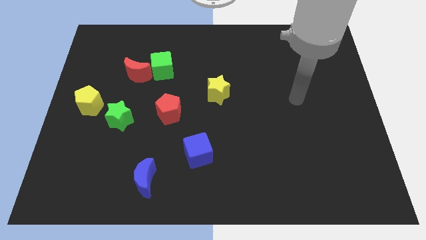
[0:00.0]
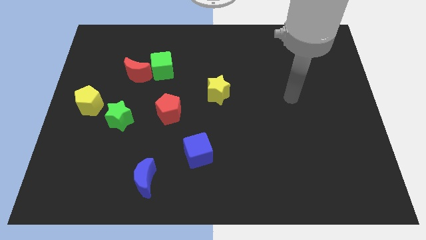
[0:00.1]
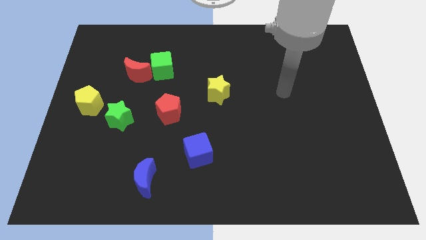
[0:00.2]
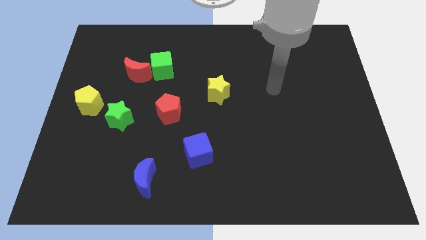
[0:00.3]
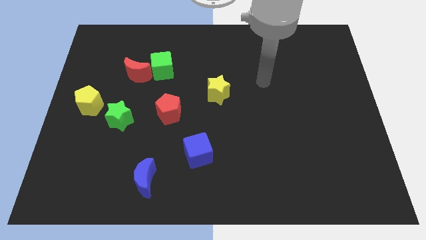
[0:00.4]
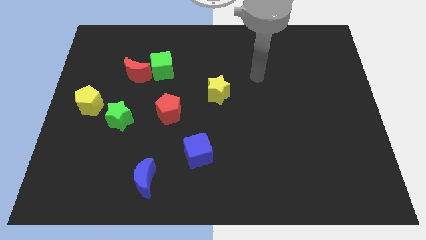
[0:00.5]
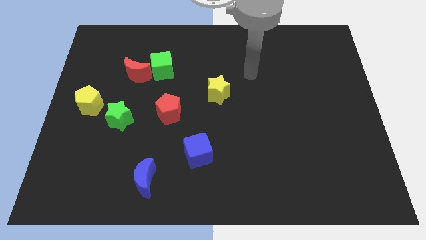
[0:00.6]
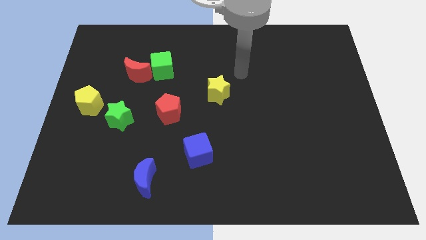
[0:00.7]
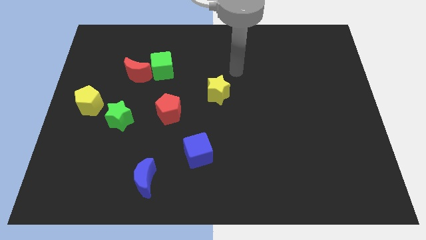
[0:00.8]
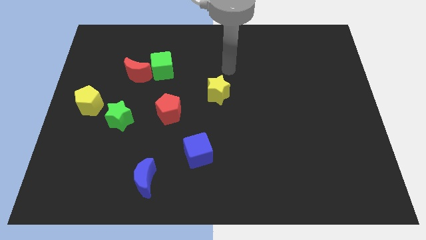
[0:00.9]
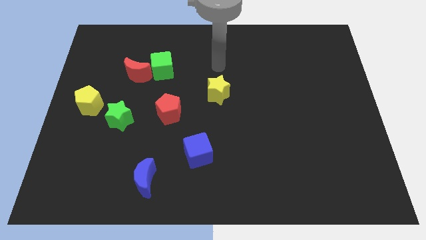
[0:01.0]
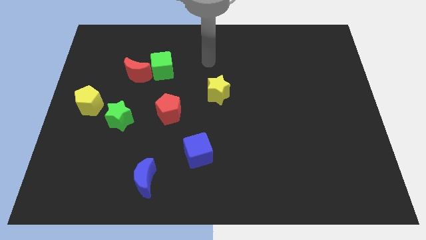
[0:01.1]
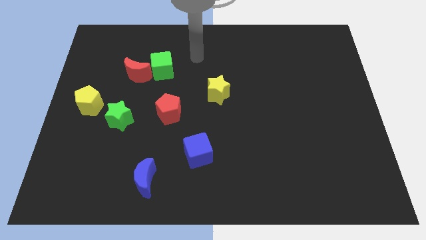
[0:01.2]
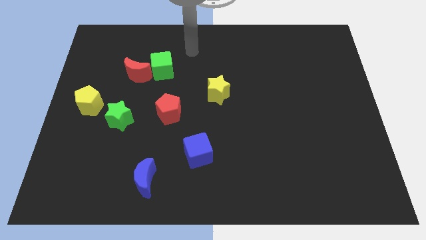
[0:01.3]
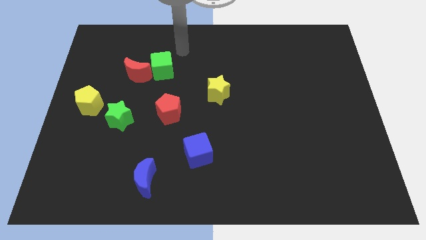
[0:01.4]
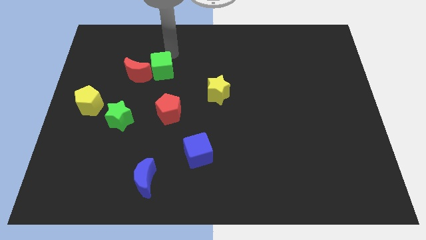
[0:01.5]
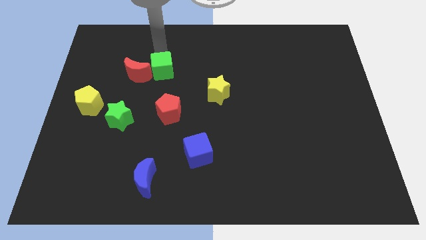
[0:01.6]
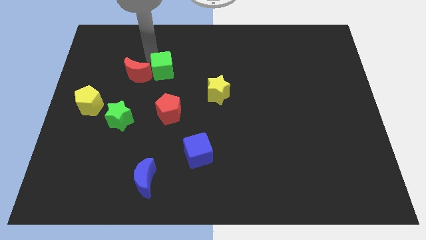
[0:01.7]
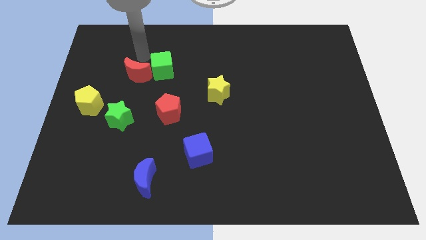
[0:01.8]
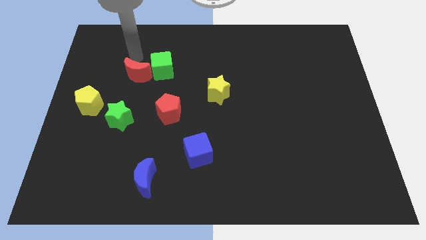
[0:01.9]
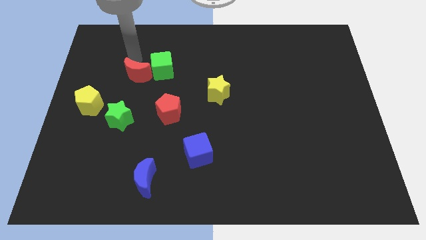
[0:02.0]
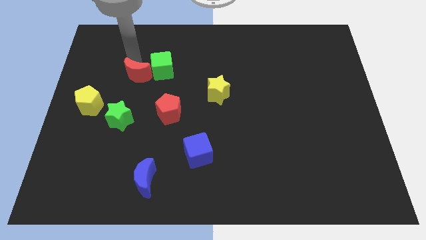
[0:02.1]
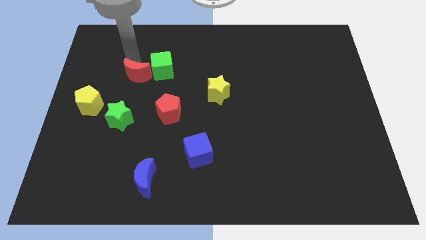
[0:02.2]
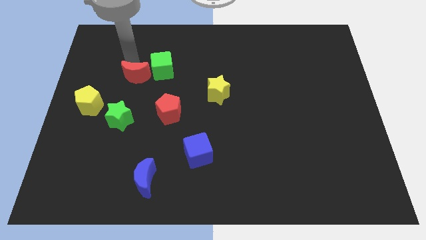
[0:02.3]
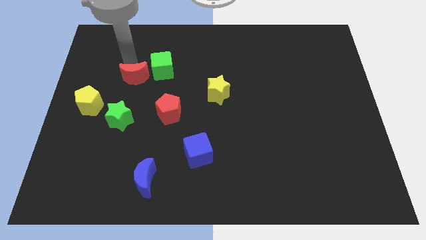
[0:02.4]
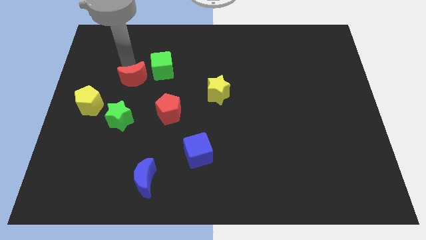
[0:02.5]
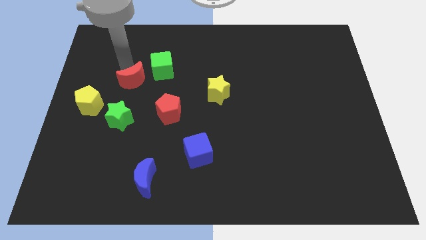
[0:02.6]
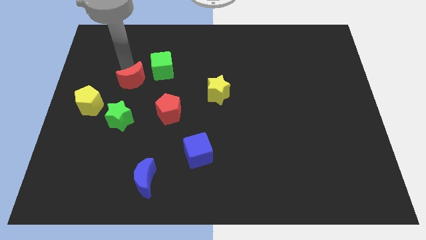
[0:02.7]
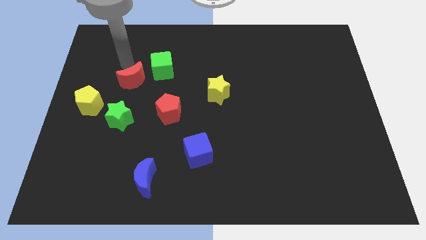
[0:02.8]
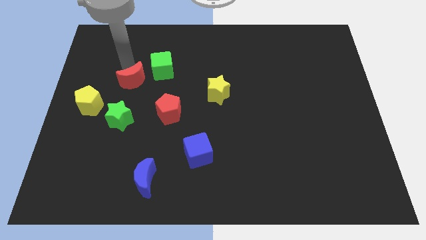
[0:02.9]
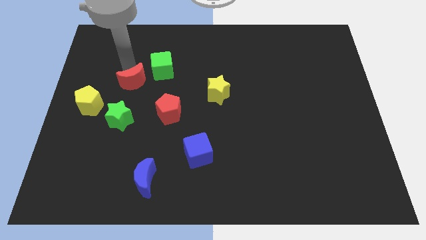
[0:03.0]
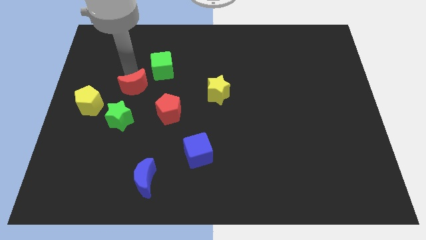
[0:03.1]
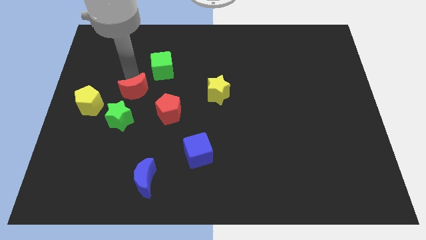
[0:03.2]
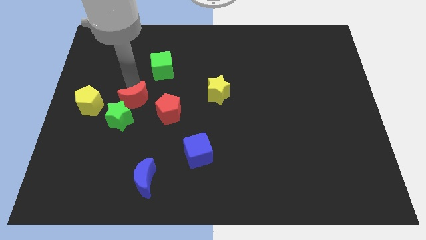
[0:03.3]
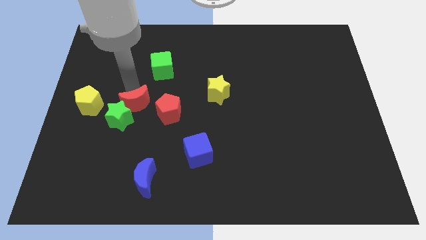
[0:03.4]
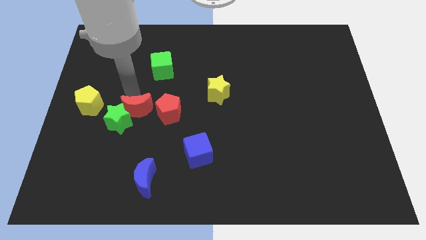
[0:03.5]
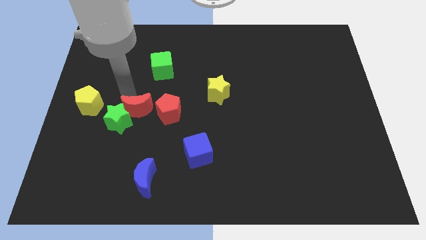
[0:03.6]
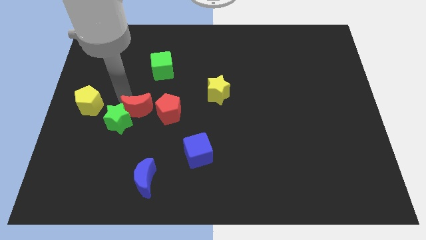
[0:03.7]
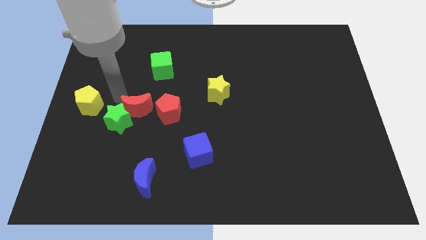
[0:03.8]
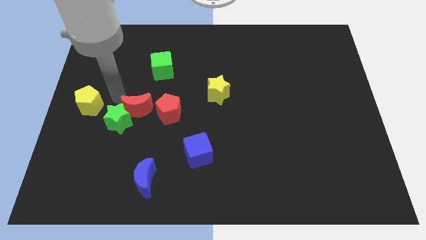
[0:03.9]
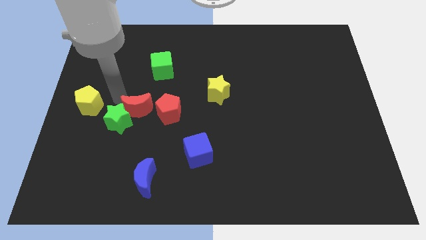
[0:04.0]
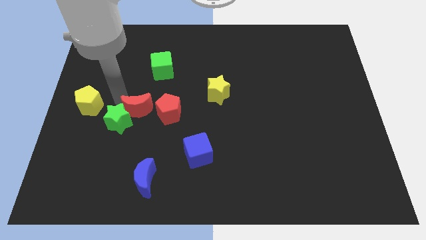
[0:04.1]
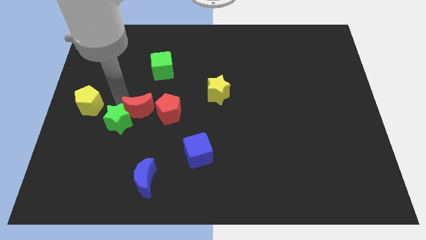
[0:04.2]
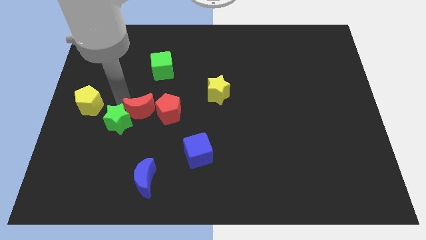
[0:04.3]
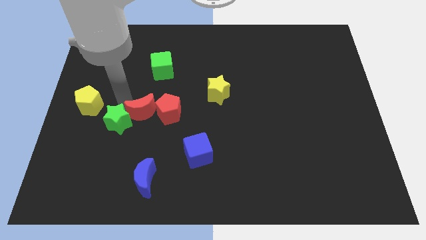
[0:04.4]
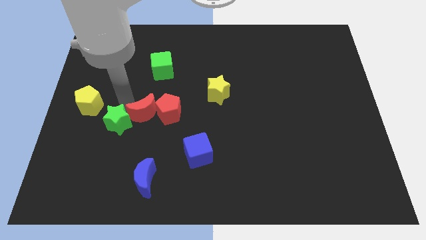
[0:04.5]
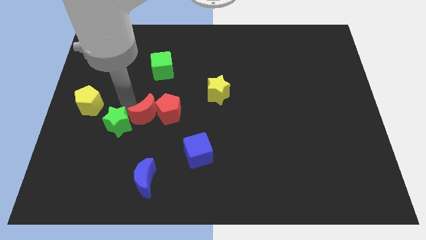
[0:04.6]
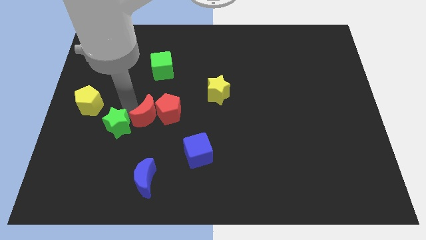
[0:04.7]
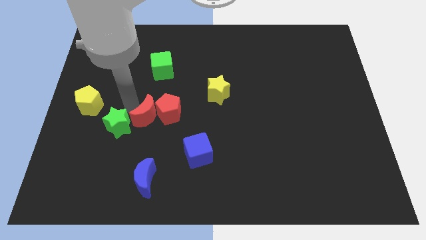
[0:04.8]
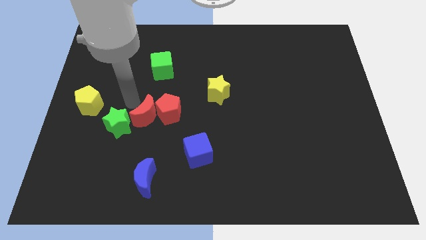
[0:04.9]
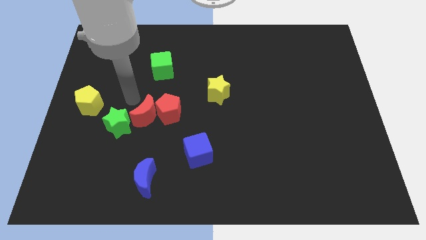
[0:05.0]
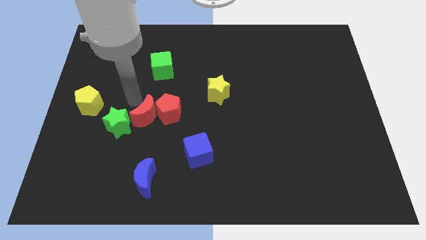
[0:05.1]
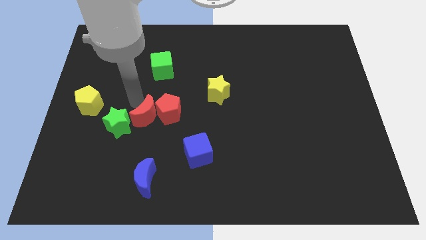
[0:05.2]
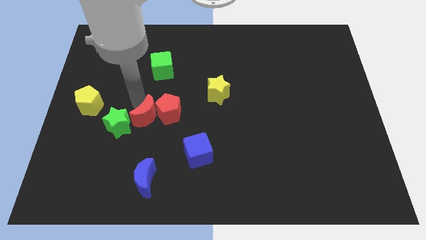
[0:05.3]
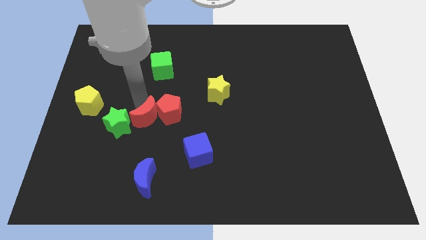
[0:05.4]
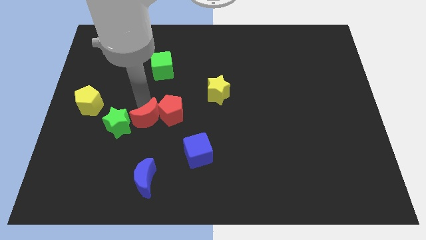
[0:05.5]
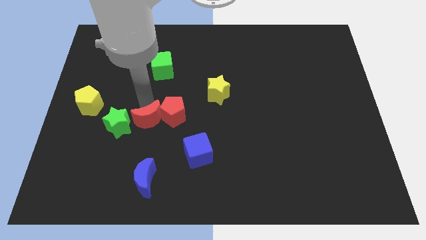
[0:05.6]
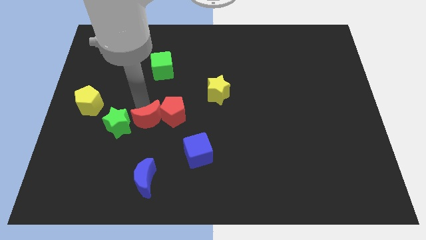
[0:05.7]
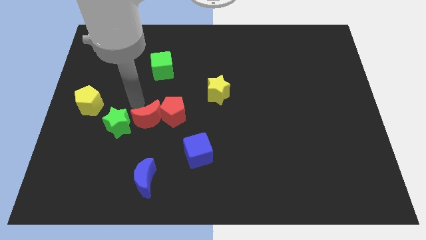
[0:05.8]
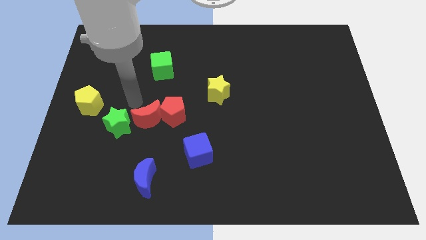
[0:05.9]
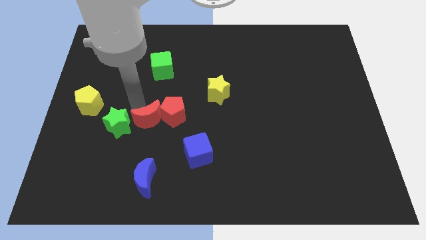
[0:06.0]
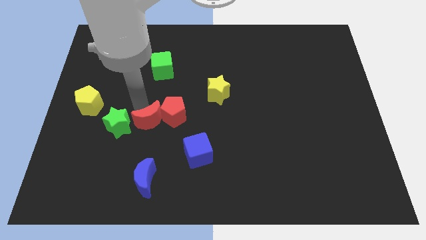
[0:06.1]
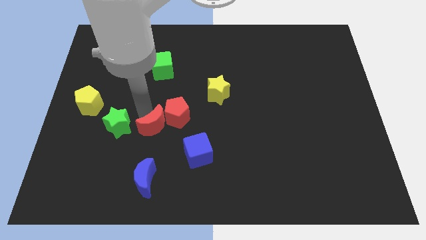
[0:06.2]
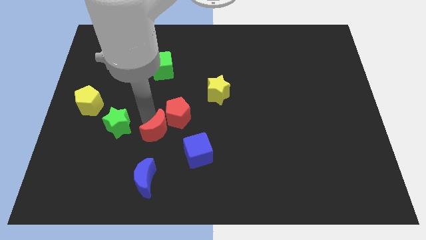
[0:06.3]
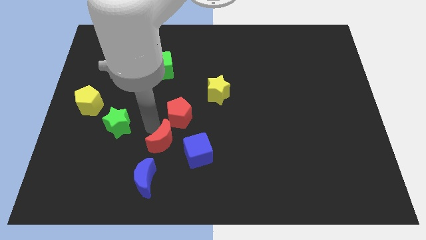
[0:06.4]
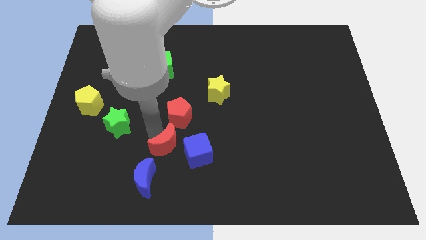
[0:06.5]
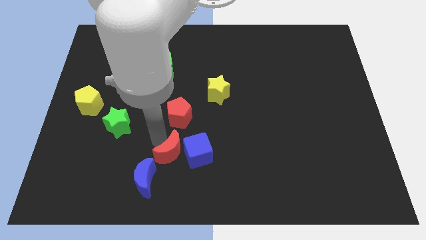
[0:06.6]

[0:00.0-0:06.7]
slide the red moon towards the blue cube

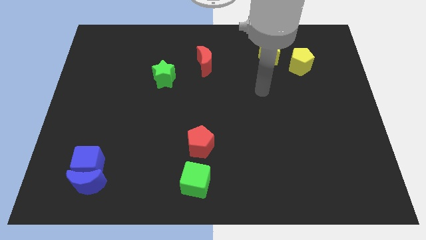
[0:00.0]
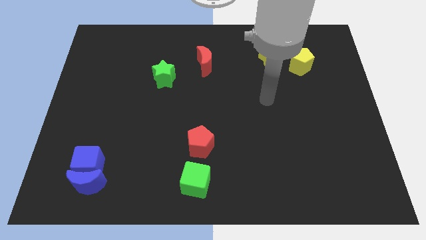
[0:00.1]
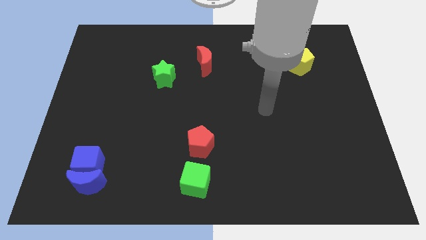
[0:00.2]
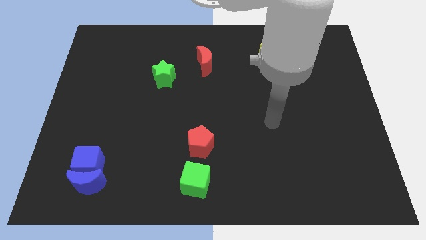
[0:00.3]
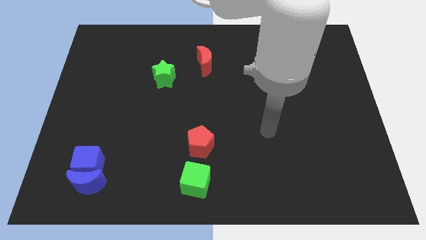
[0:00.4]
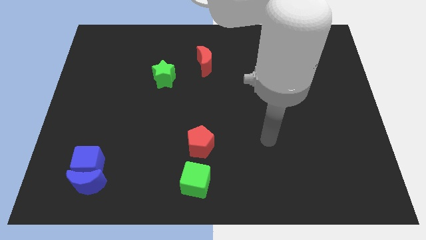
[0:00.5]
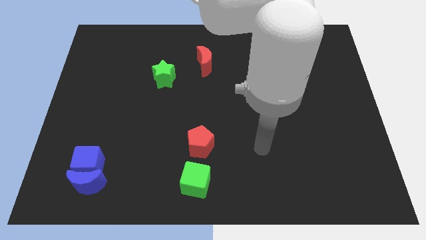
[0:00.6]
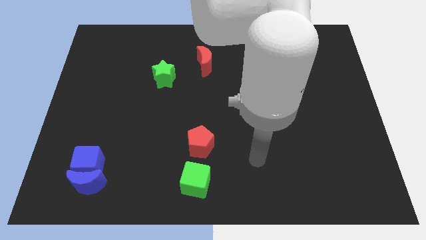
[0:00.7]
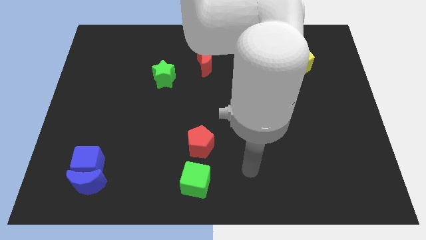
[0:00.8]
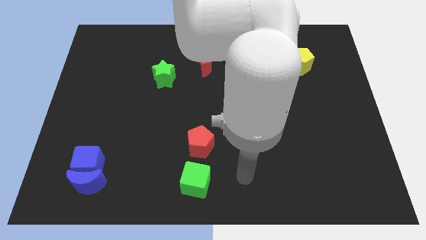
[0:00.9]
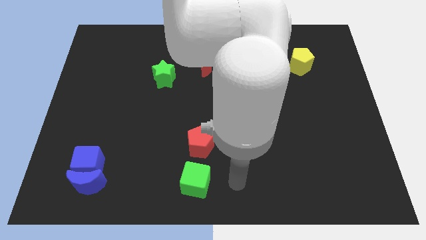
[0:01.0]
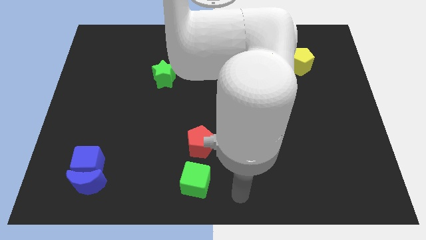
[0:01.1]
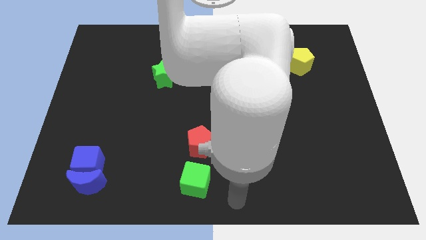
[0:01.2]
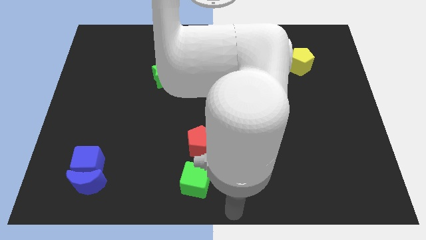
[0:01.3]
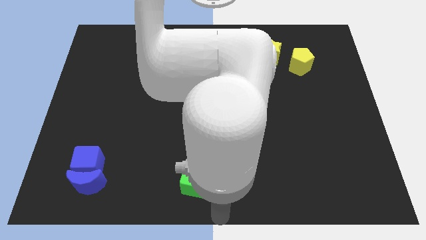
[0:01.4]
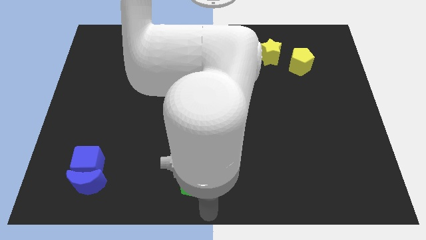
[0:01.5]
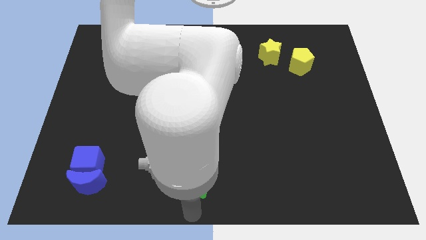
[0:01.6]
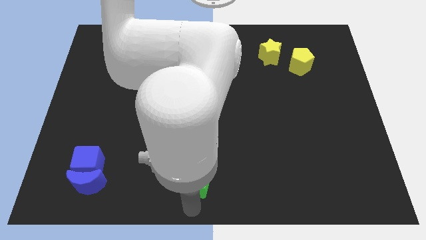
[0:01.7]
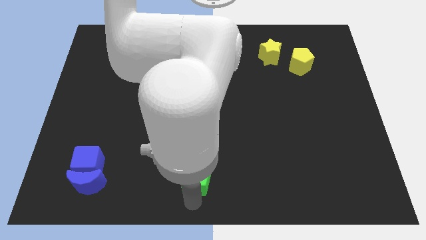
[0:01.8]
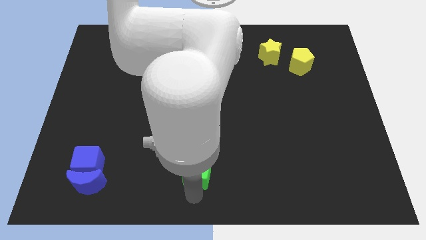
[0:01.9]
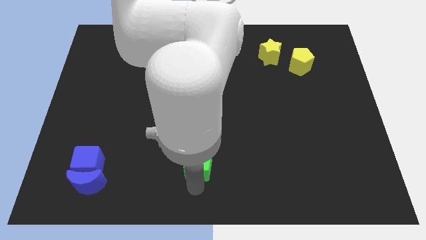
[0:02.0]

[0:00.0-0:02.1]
move the green cube close to the red pentagon
